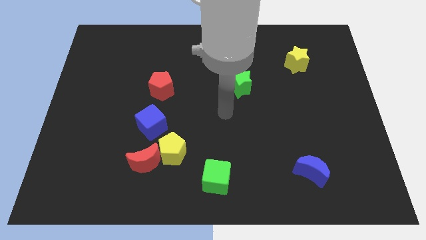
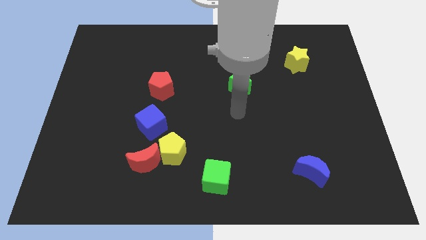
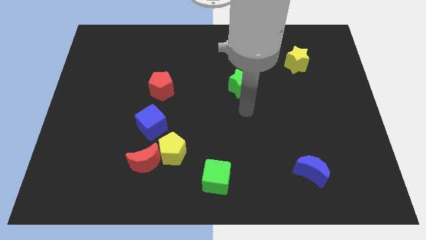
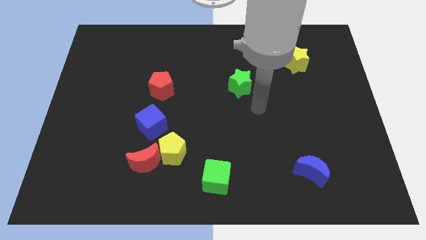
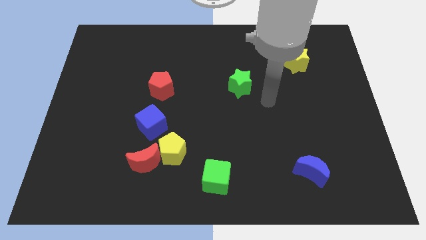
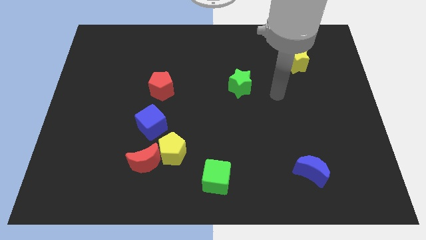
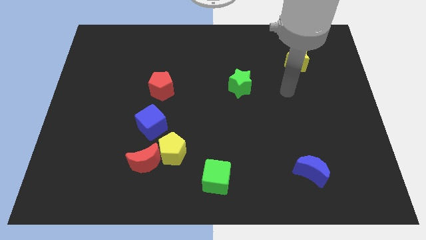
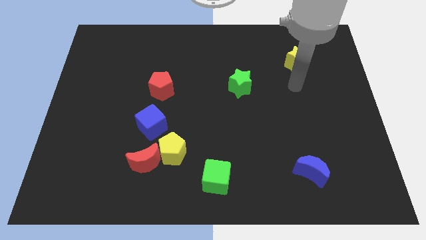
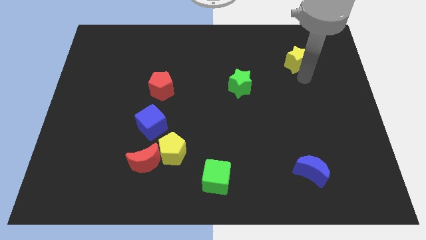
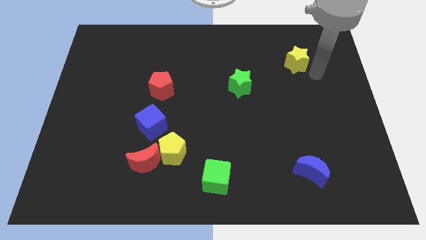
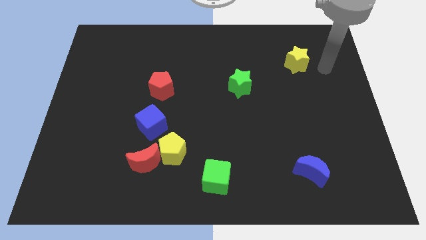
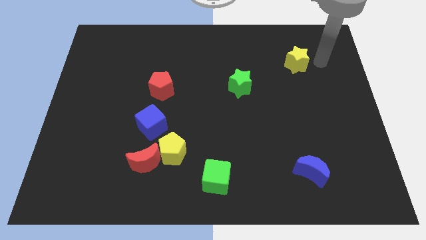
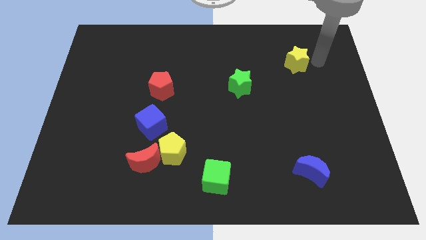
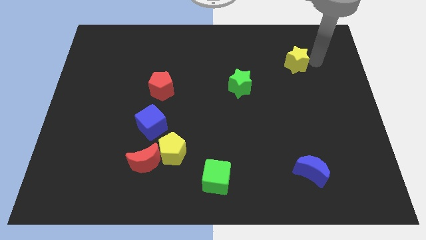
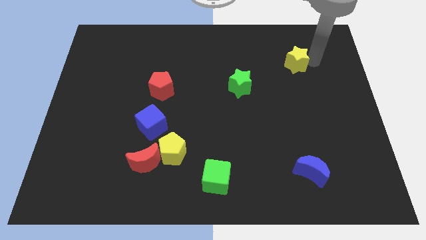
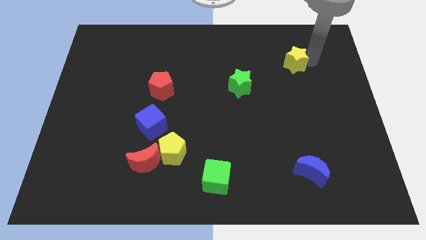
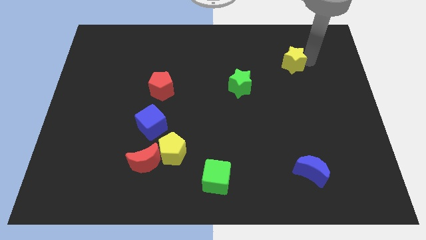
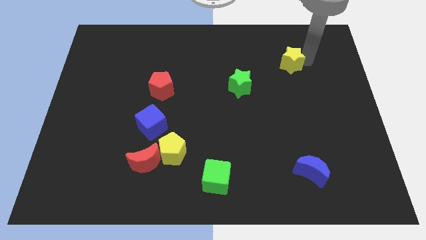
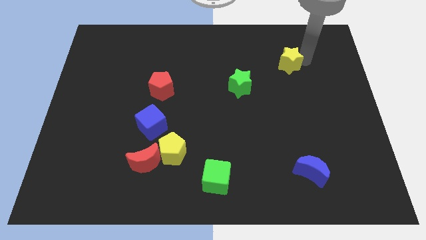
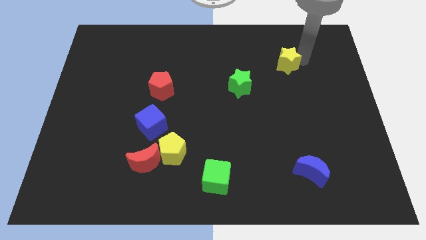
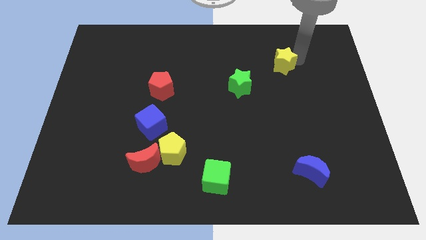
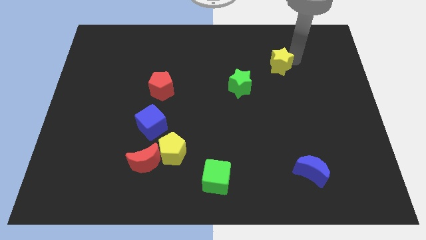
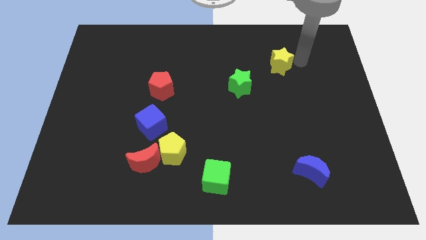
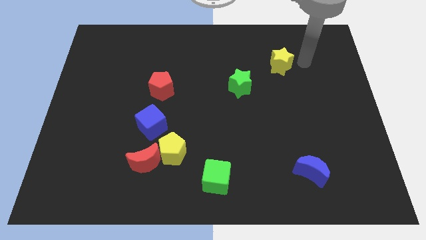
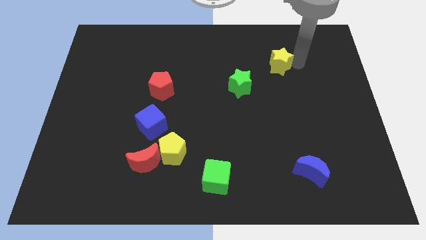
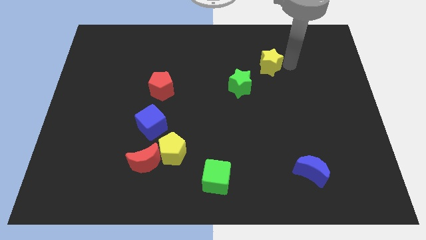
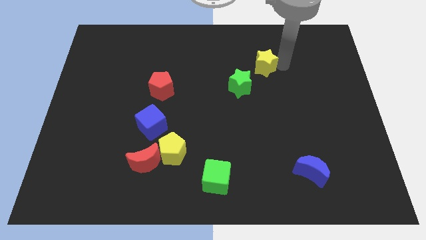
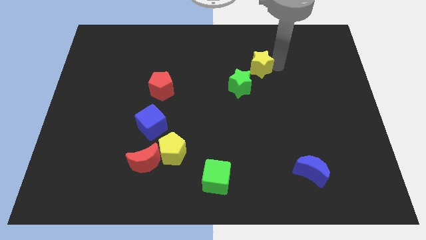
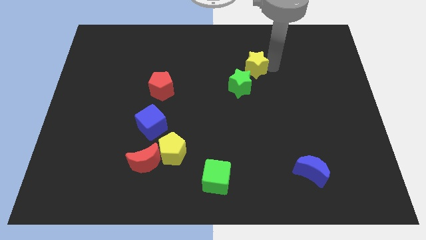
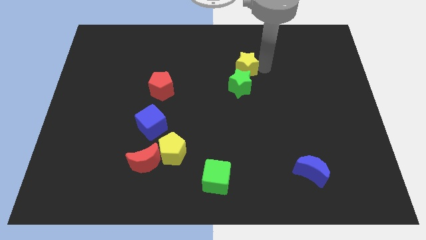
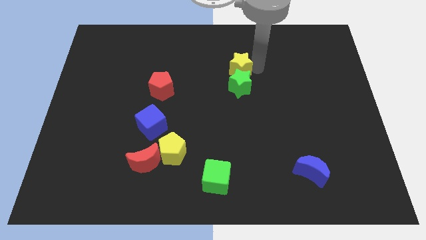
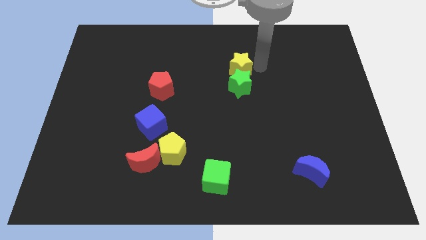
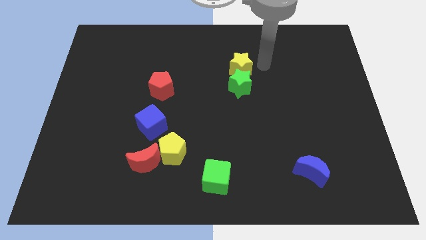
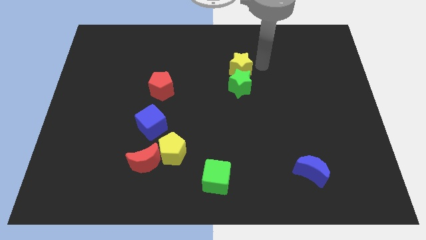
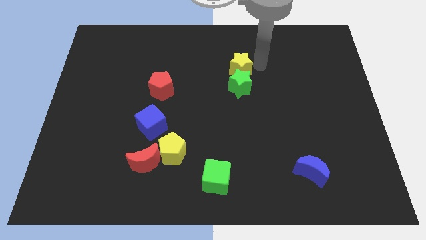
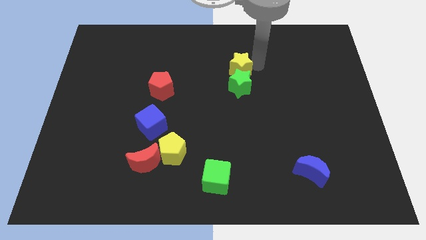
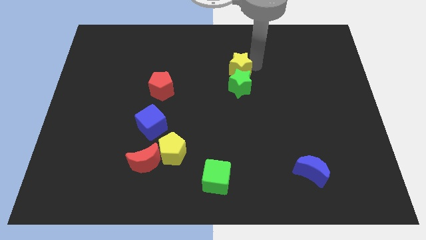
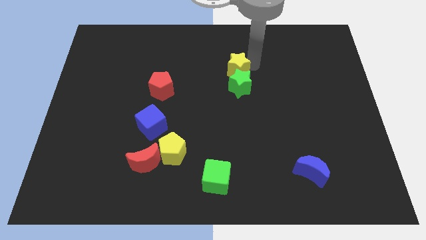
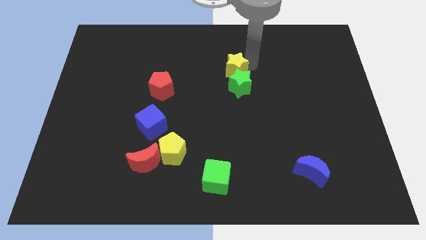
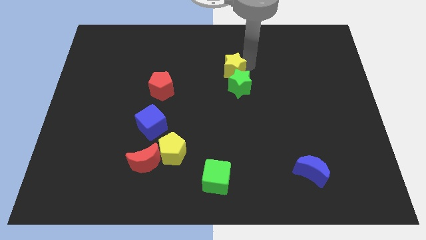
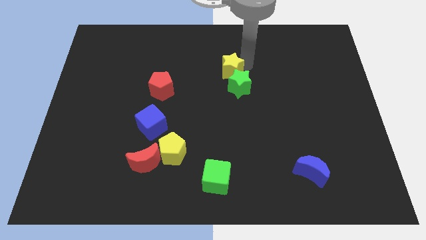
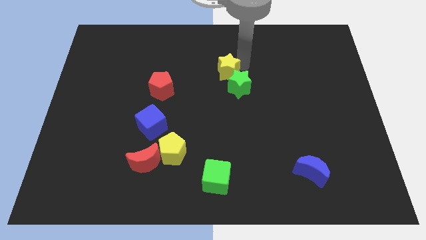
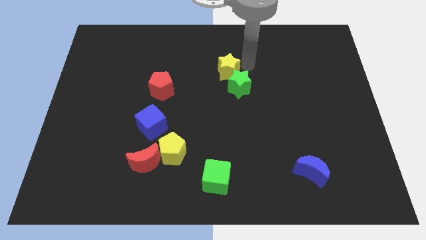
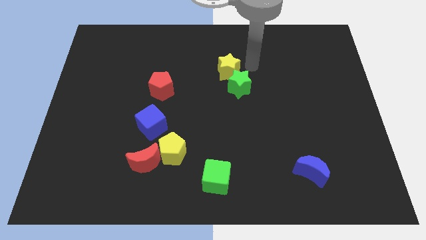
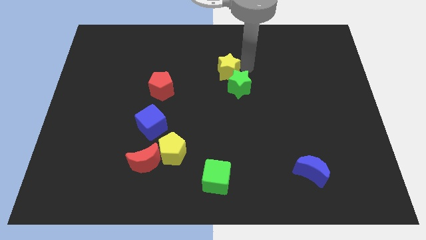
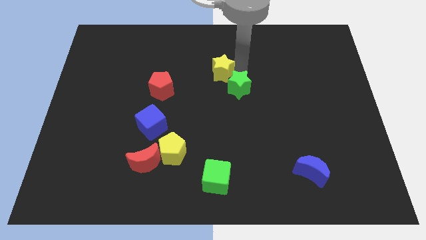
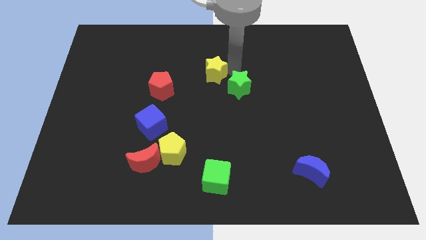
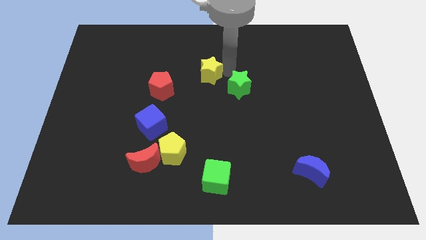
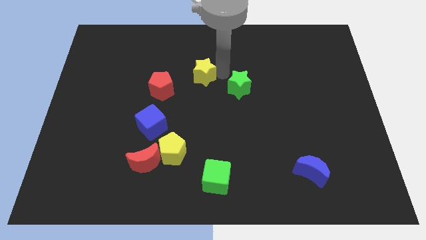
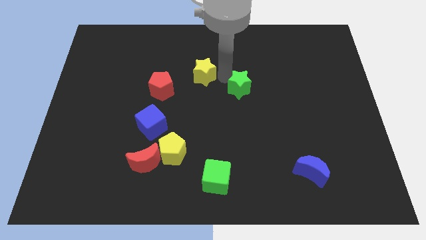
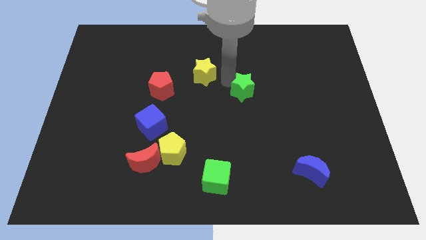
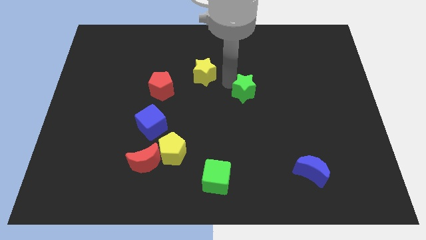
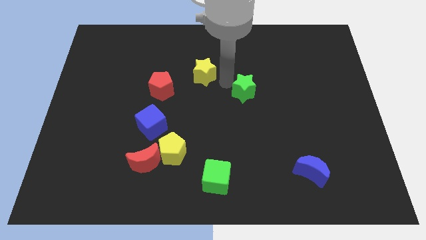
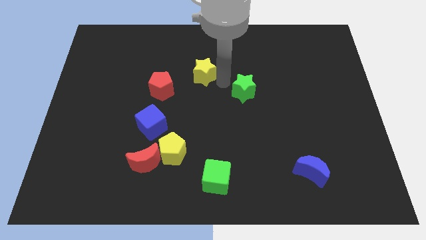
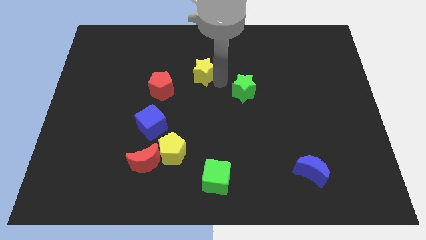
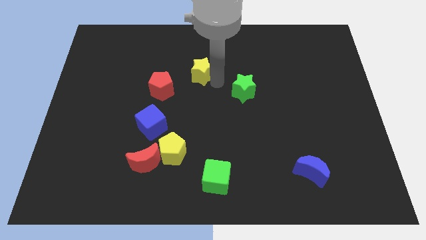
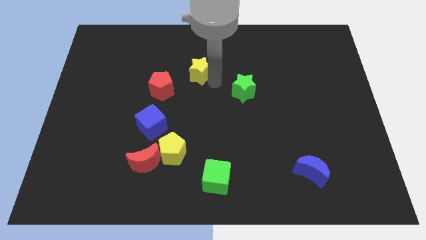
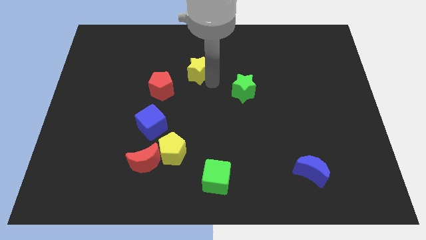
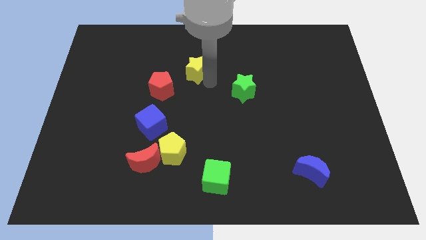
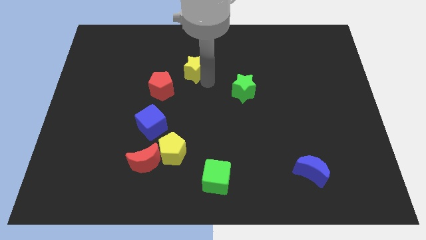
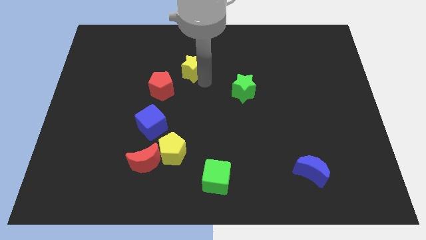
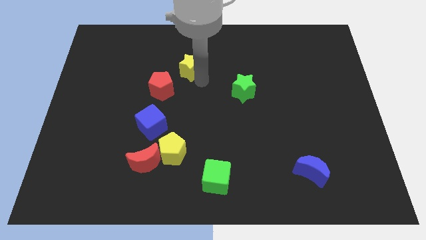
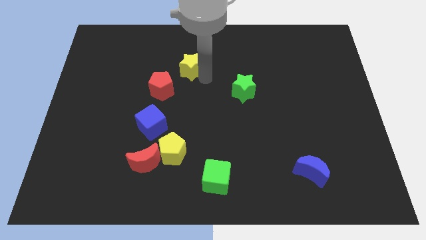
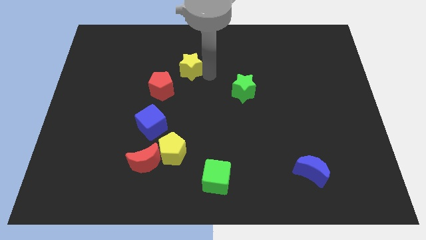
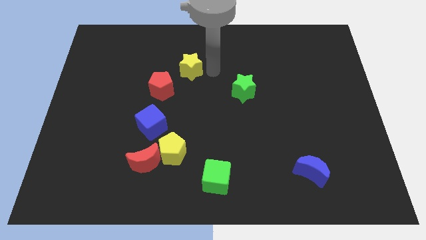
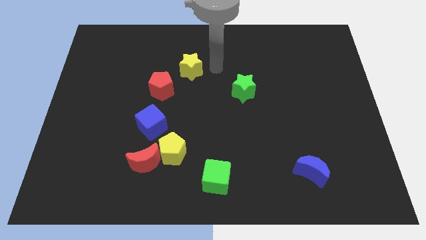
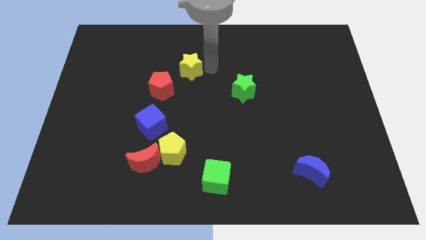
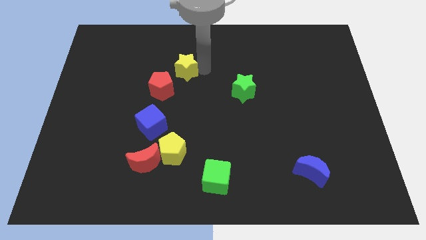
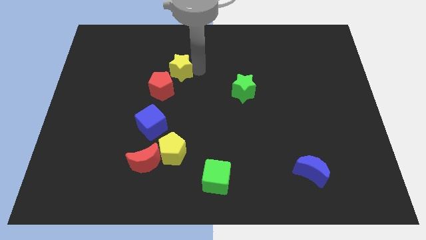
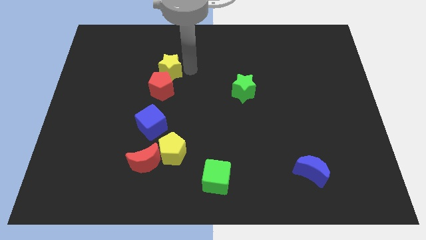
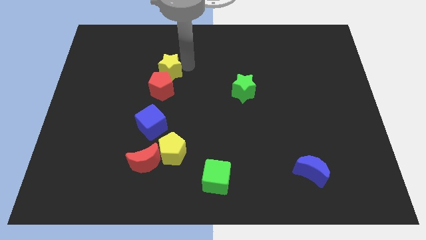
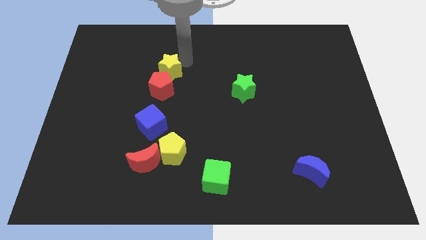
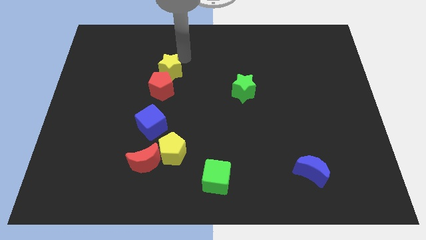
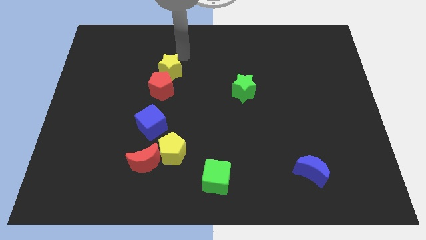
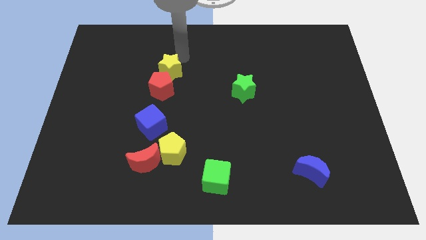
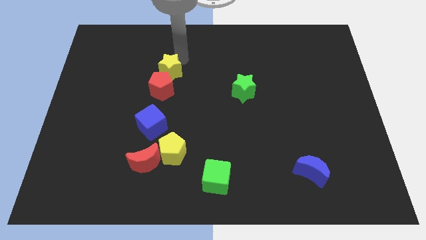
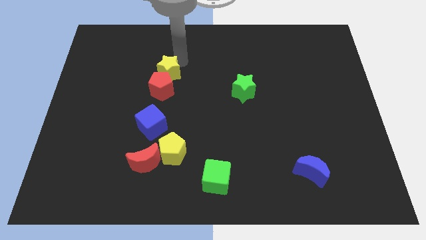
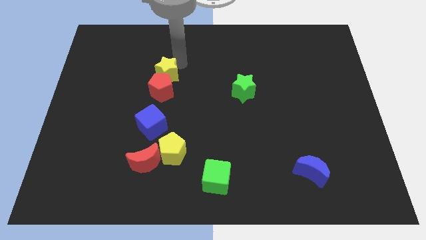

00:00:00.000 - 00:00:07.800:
put the yellow star to the top side of the blue cube
